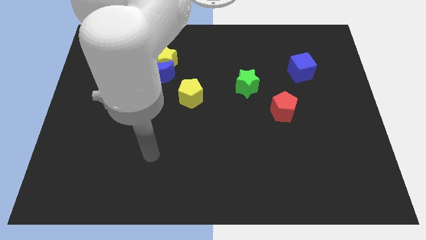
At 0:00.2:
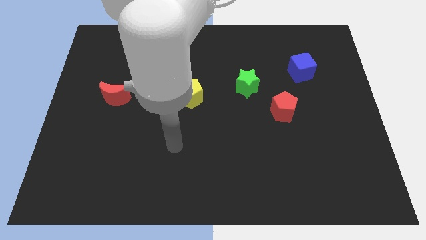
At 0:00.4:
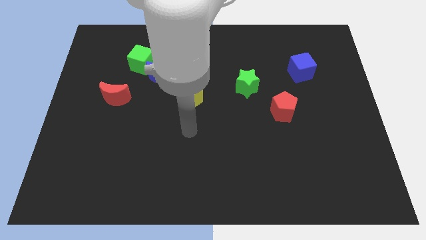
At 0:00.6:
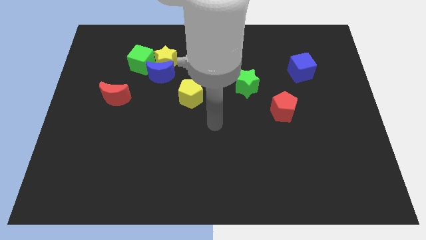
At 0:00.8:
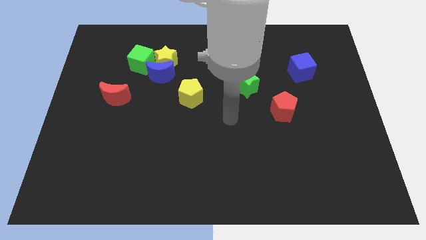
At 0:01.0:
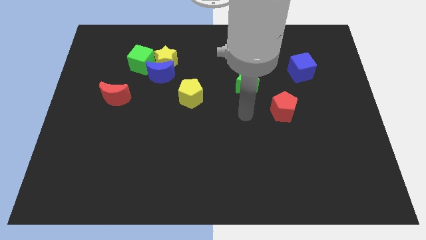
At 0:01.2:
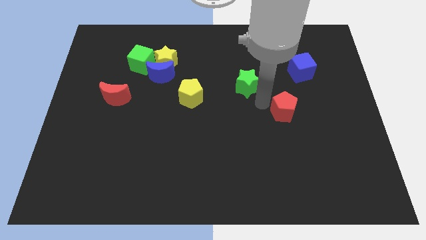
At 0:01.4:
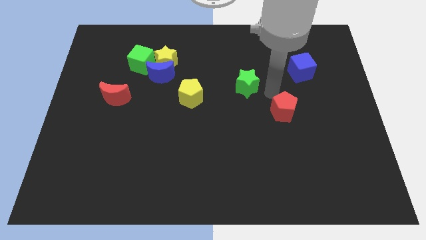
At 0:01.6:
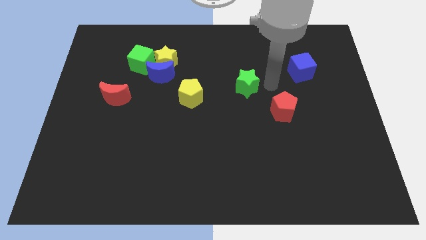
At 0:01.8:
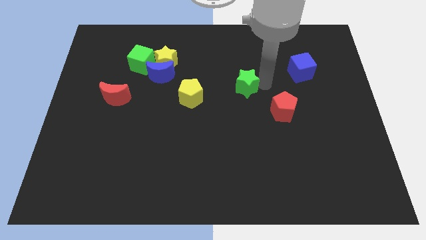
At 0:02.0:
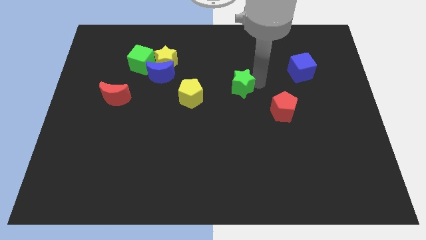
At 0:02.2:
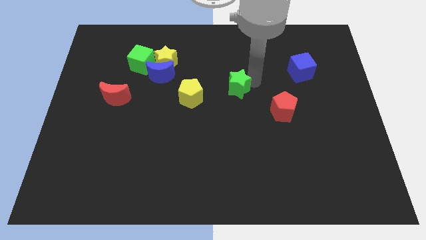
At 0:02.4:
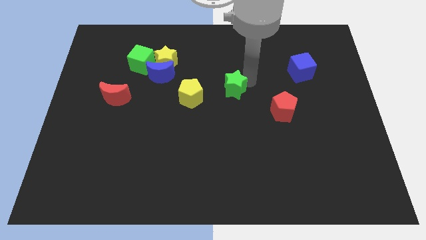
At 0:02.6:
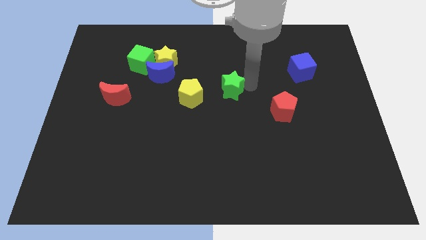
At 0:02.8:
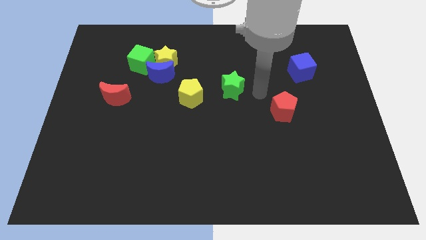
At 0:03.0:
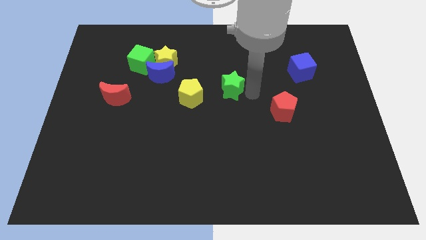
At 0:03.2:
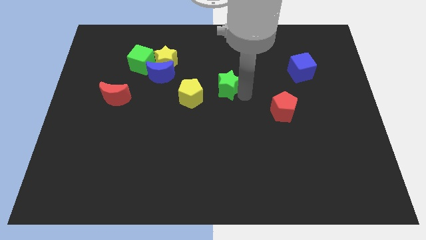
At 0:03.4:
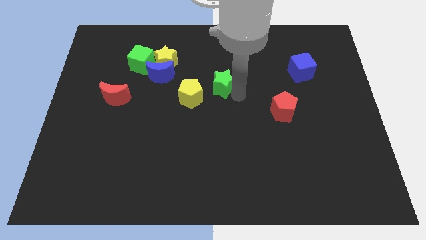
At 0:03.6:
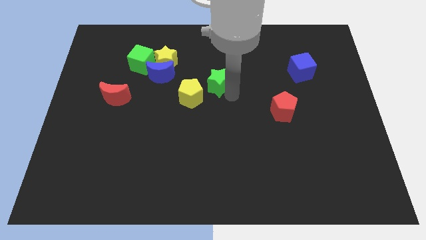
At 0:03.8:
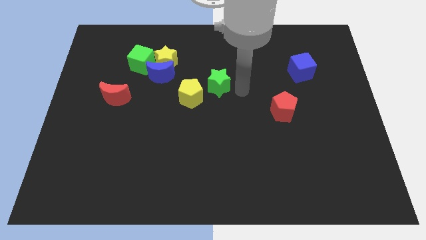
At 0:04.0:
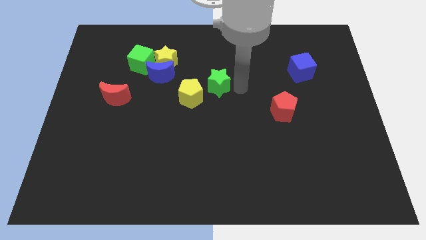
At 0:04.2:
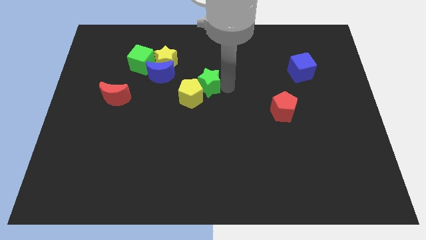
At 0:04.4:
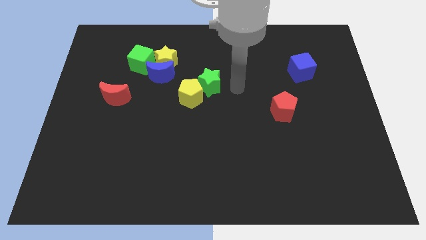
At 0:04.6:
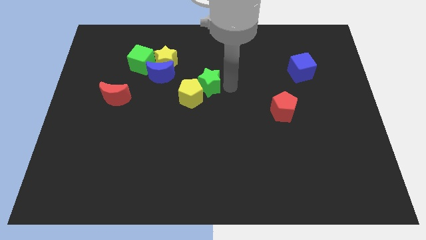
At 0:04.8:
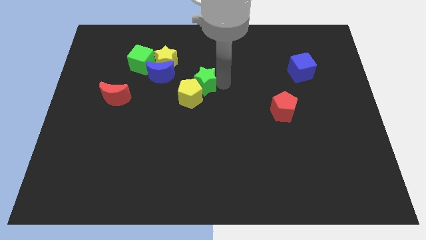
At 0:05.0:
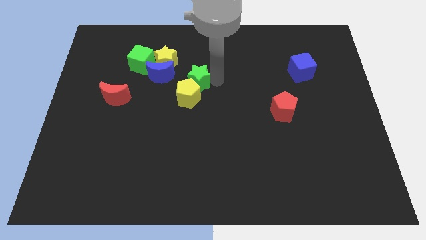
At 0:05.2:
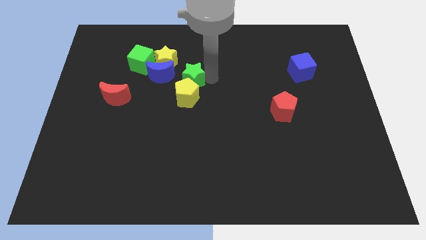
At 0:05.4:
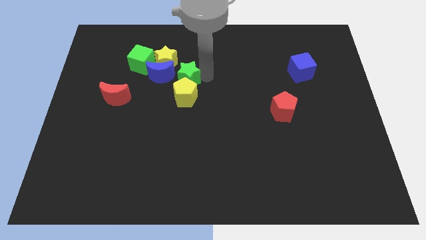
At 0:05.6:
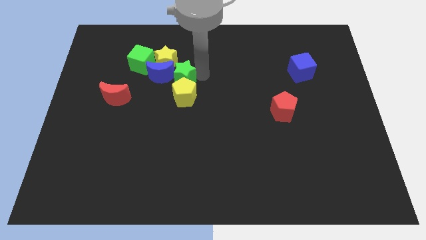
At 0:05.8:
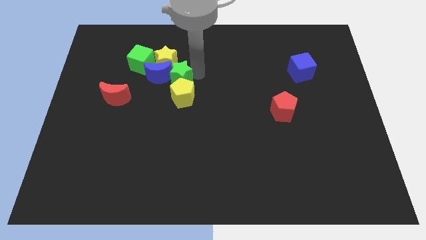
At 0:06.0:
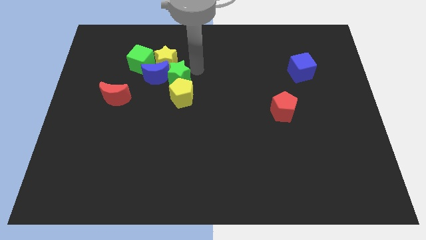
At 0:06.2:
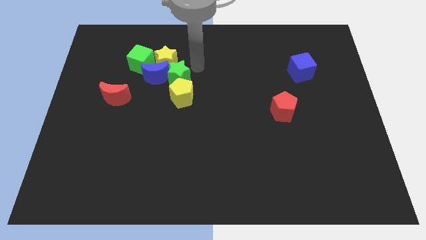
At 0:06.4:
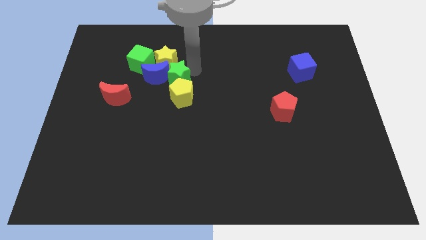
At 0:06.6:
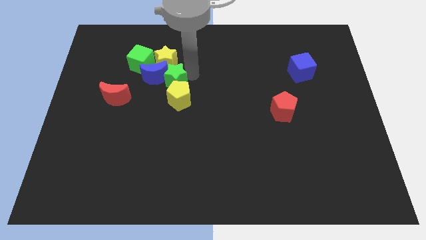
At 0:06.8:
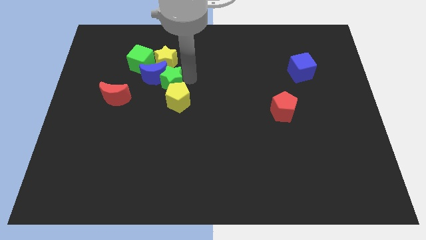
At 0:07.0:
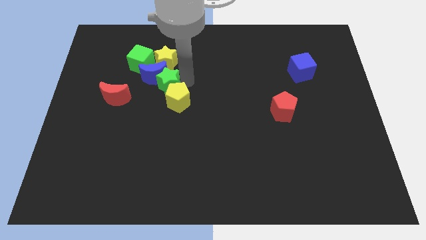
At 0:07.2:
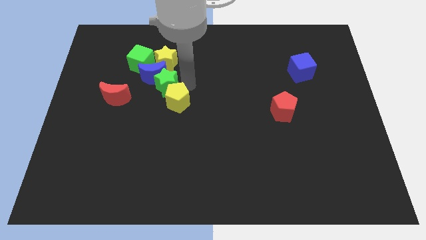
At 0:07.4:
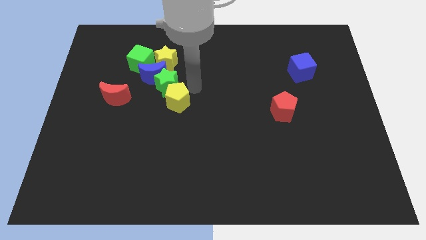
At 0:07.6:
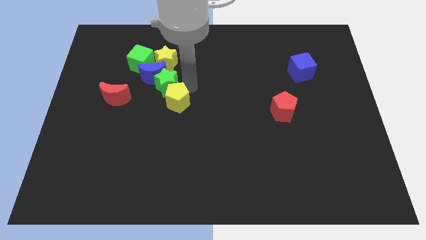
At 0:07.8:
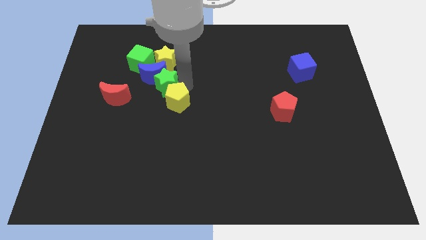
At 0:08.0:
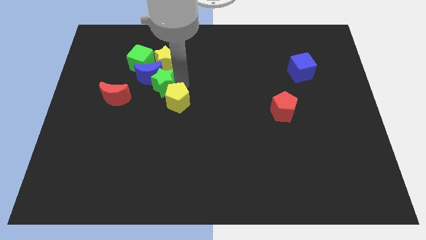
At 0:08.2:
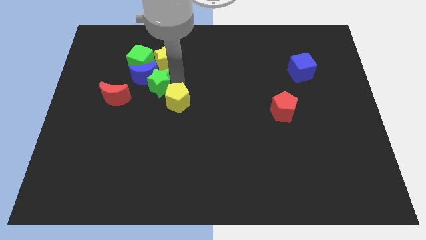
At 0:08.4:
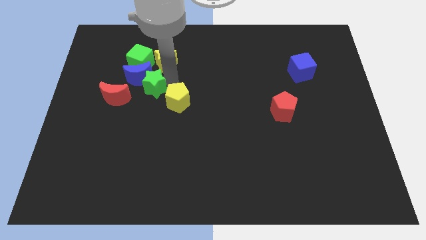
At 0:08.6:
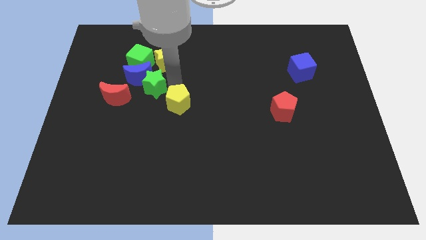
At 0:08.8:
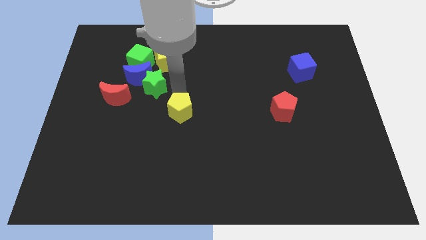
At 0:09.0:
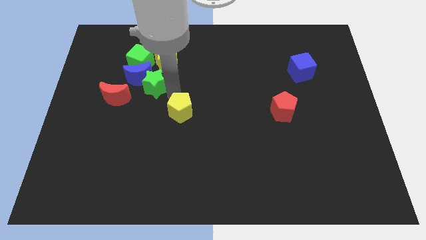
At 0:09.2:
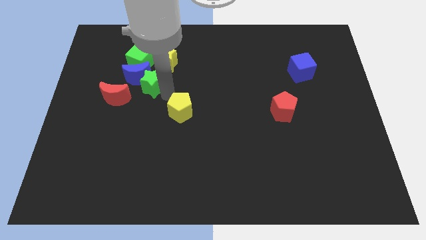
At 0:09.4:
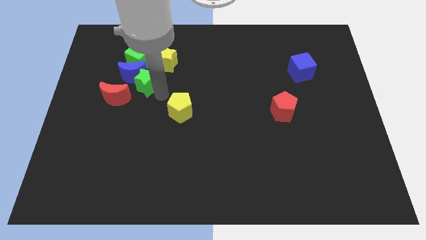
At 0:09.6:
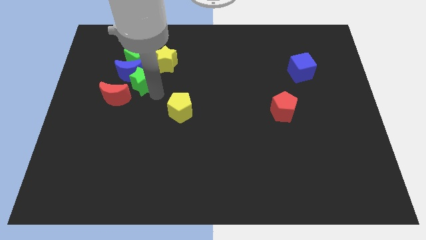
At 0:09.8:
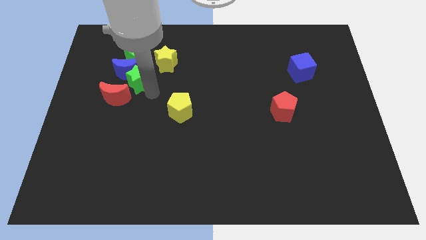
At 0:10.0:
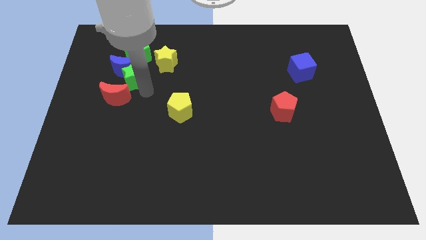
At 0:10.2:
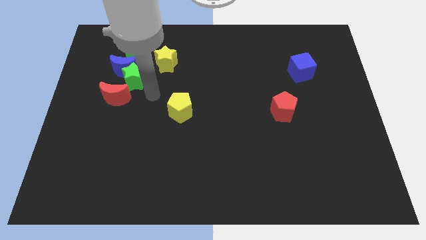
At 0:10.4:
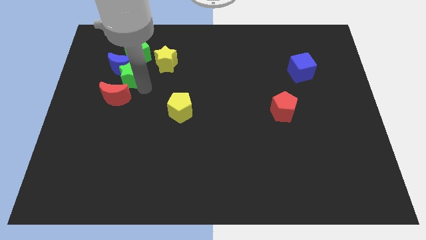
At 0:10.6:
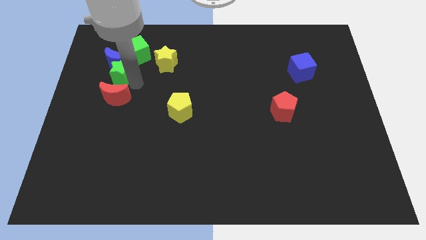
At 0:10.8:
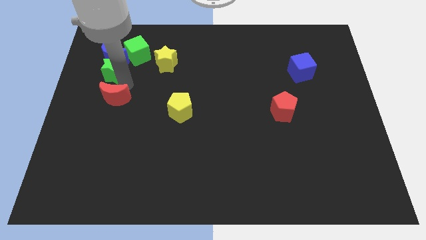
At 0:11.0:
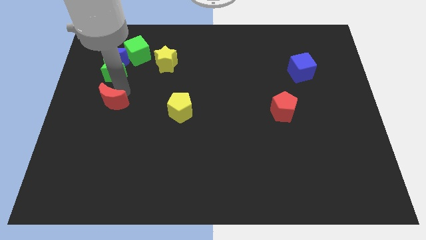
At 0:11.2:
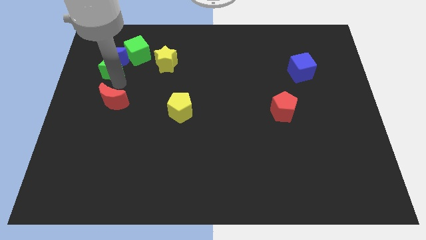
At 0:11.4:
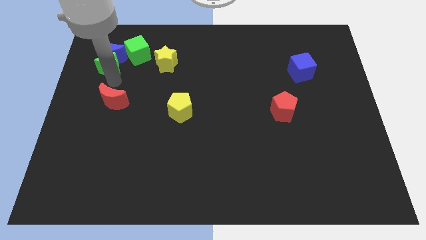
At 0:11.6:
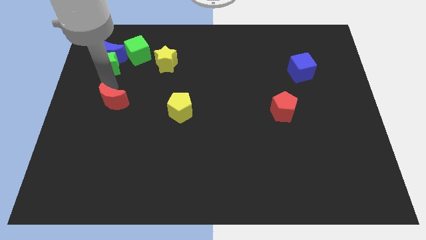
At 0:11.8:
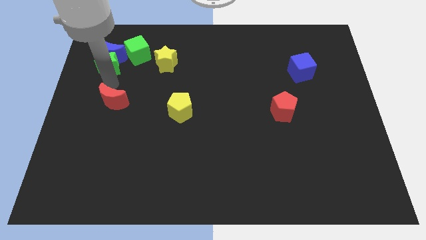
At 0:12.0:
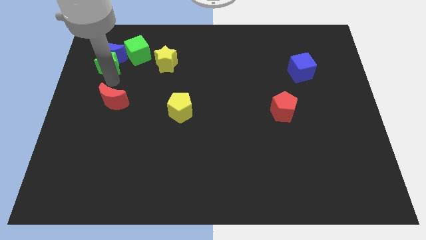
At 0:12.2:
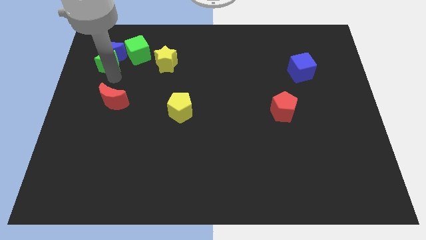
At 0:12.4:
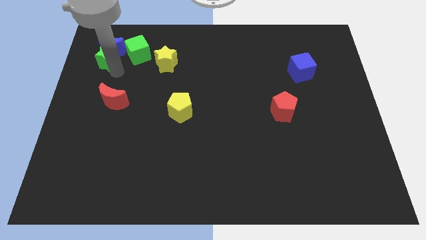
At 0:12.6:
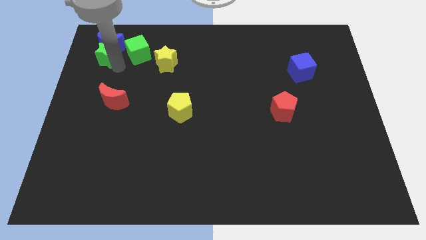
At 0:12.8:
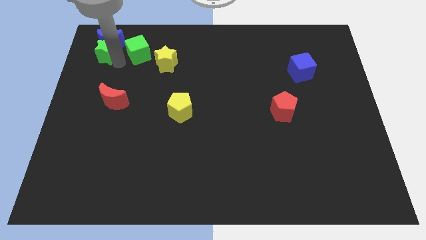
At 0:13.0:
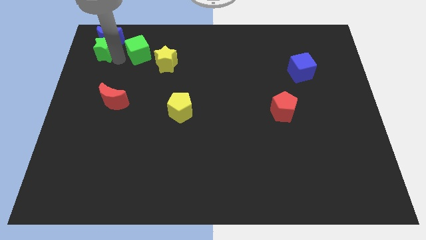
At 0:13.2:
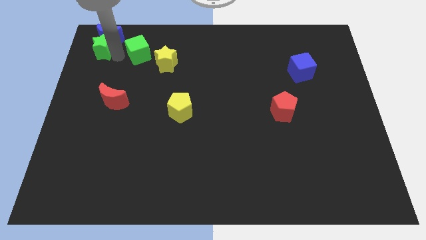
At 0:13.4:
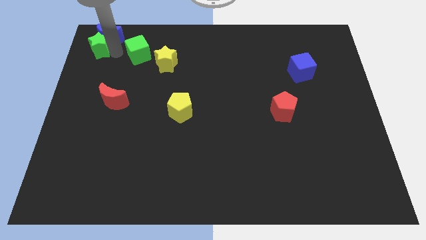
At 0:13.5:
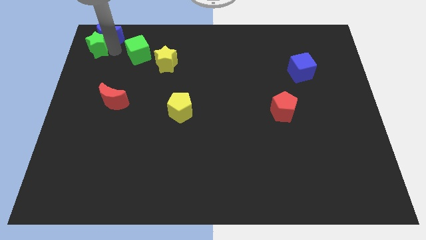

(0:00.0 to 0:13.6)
slide the green star to the top left of the board
